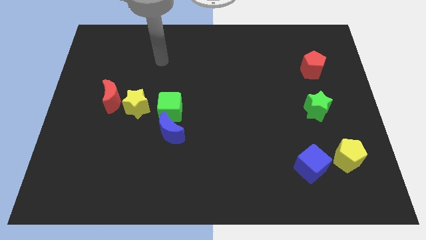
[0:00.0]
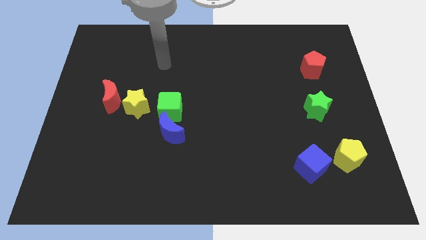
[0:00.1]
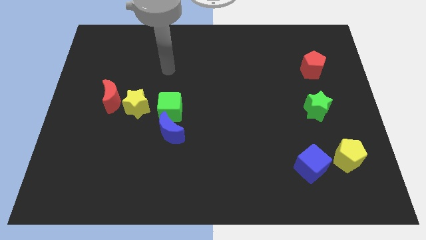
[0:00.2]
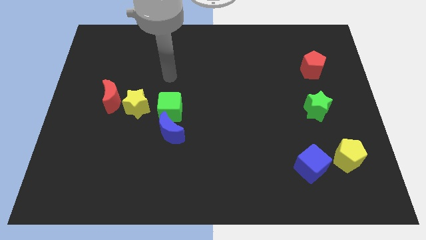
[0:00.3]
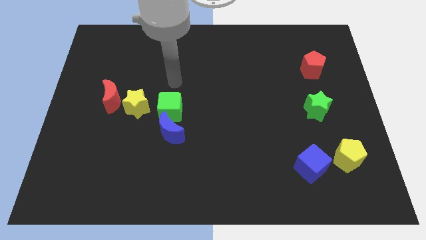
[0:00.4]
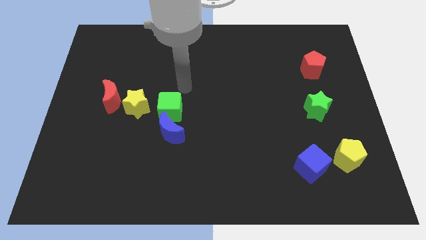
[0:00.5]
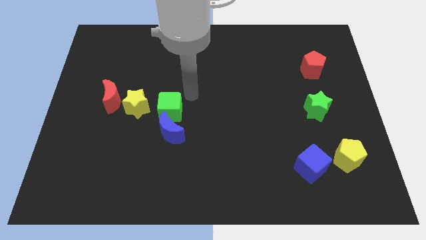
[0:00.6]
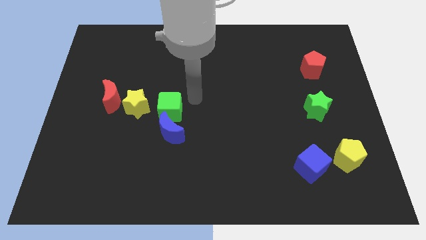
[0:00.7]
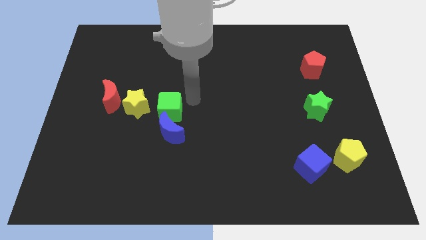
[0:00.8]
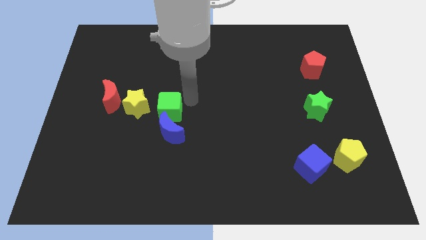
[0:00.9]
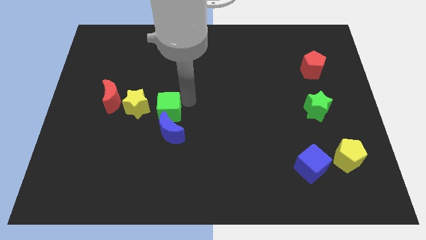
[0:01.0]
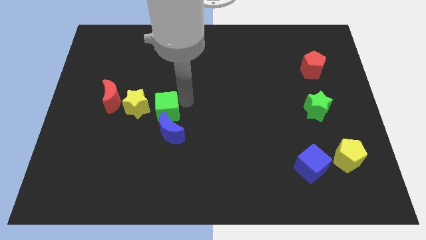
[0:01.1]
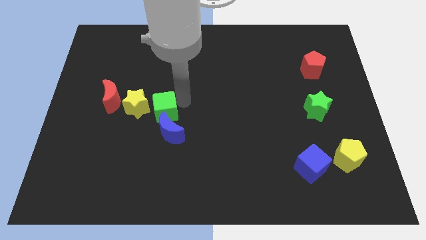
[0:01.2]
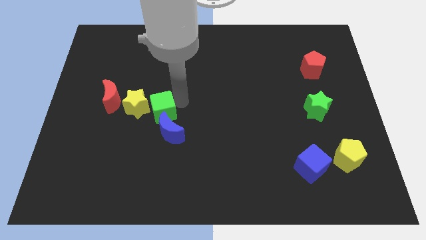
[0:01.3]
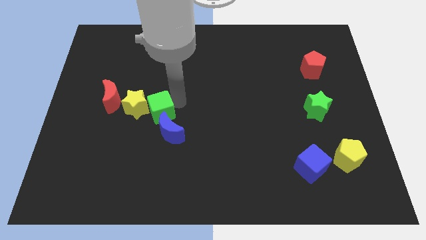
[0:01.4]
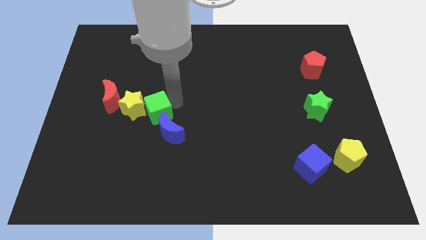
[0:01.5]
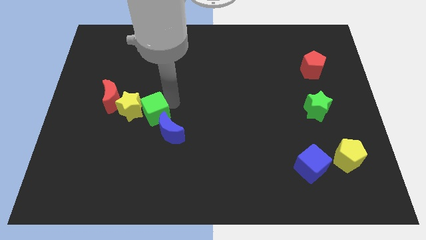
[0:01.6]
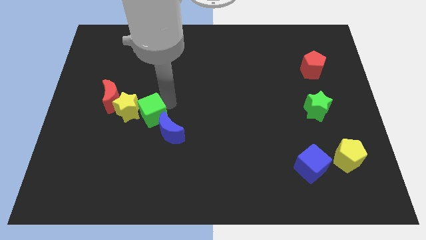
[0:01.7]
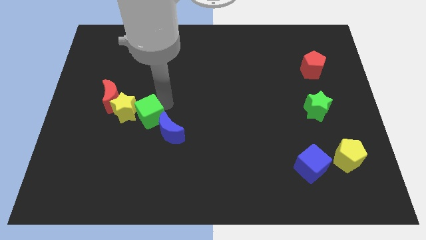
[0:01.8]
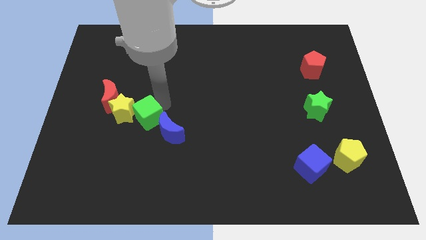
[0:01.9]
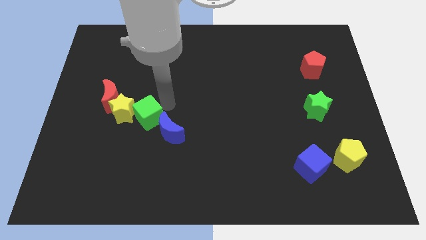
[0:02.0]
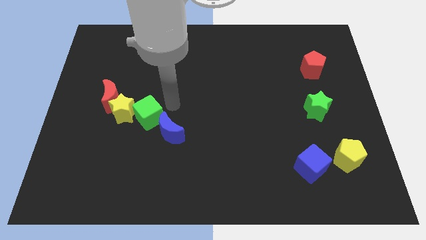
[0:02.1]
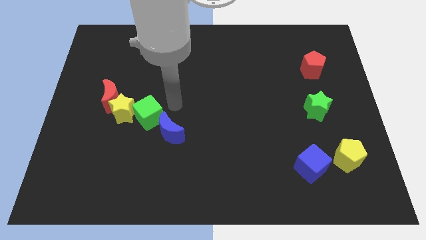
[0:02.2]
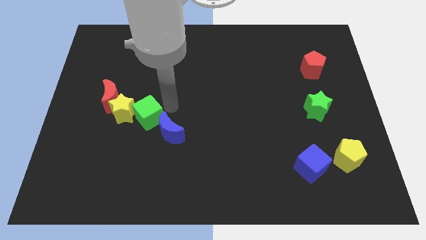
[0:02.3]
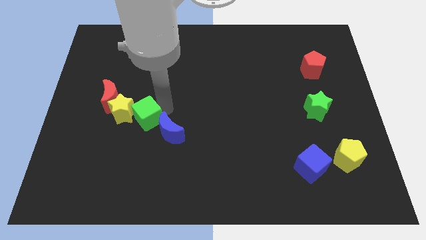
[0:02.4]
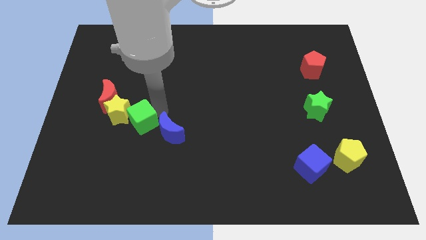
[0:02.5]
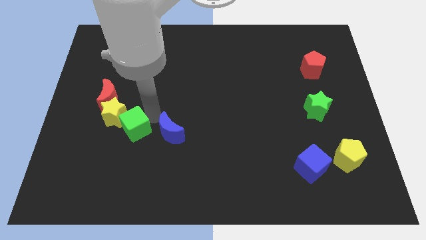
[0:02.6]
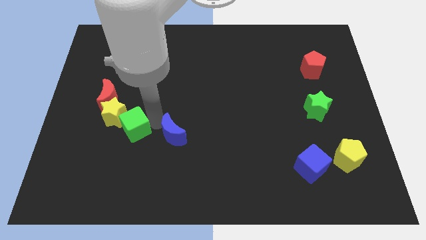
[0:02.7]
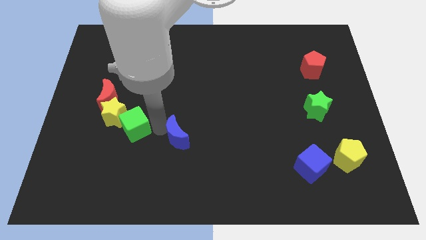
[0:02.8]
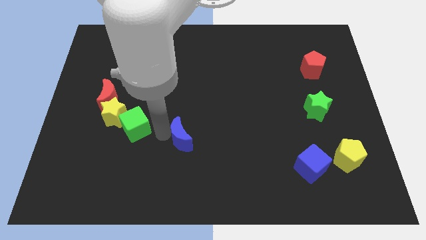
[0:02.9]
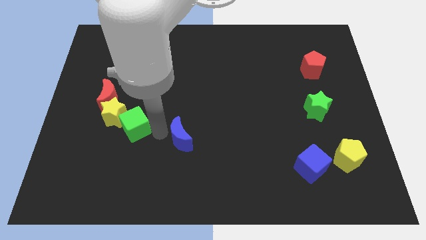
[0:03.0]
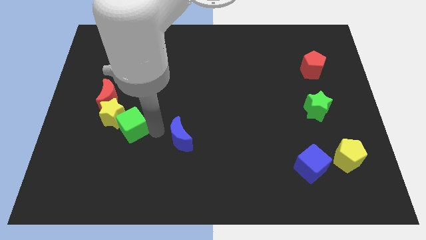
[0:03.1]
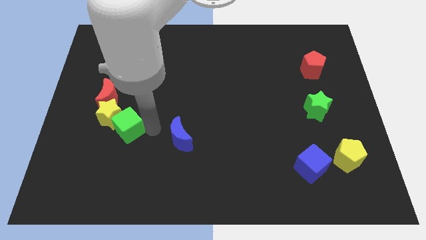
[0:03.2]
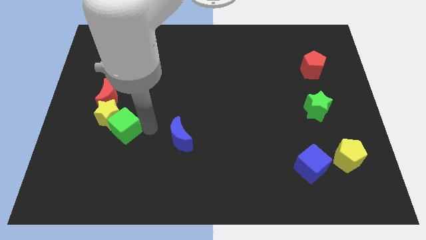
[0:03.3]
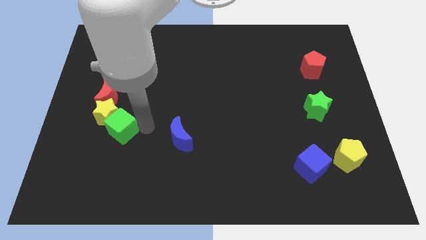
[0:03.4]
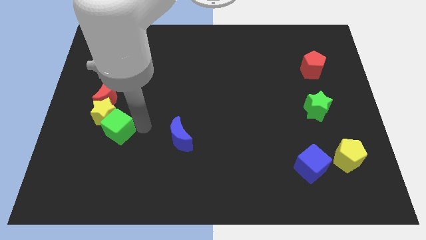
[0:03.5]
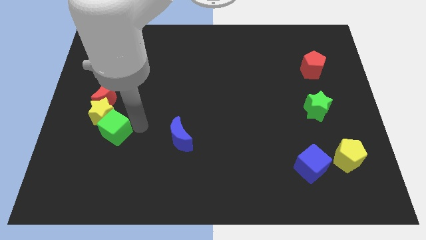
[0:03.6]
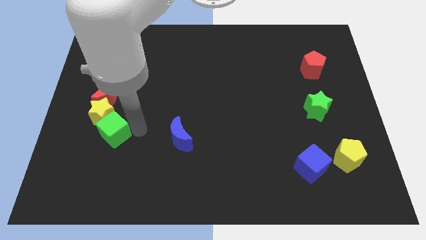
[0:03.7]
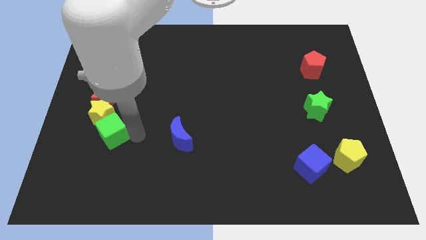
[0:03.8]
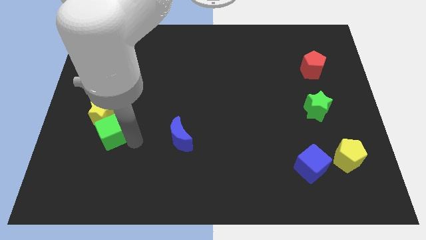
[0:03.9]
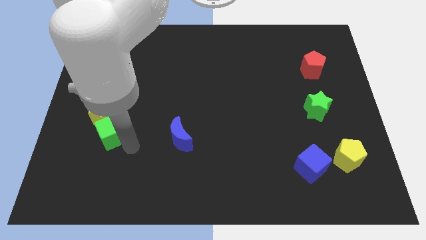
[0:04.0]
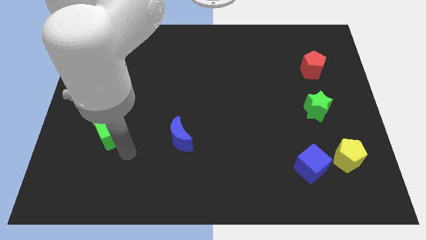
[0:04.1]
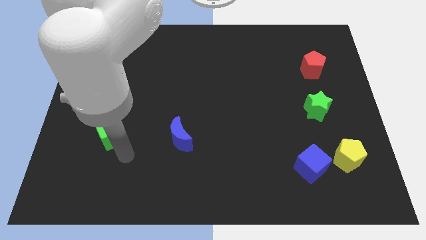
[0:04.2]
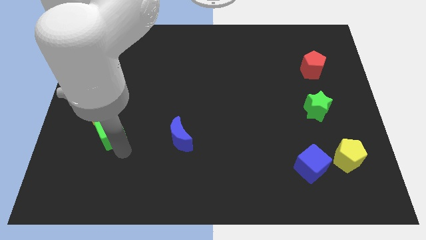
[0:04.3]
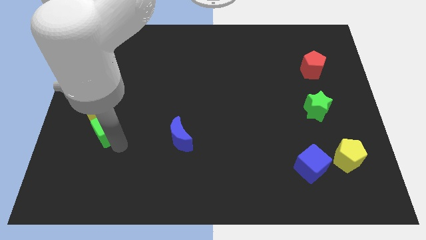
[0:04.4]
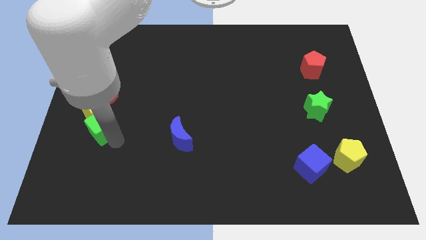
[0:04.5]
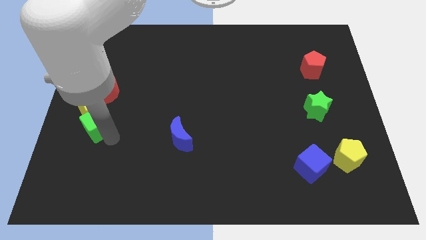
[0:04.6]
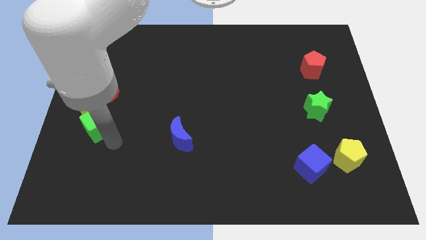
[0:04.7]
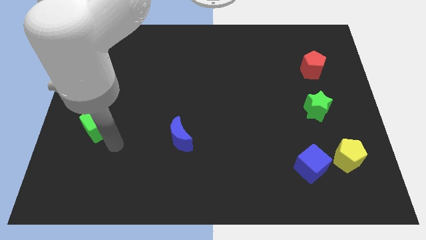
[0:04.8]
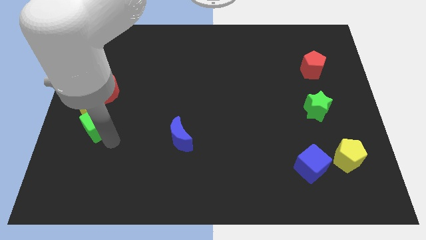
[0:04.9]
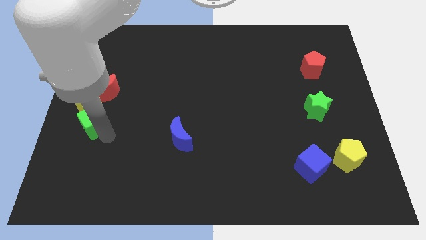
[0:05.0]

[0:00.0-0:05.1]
move the green cube to the left side of the board

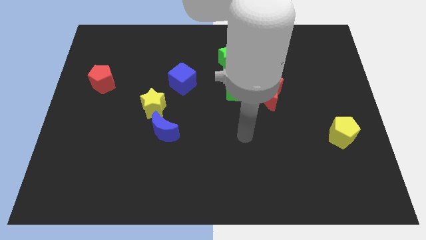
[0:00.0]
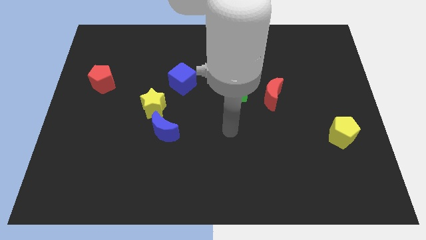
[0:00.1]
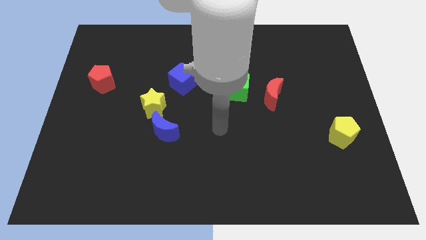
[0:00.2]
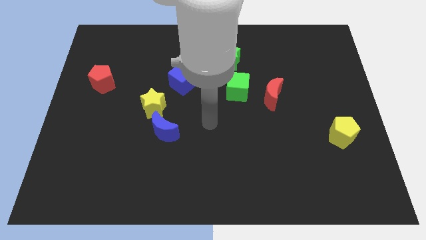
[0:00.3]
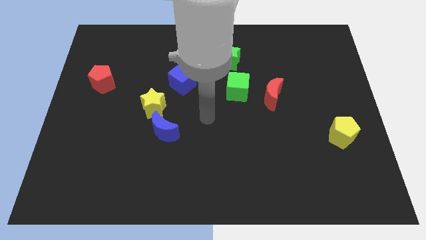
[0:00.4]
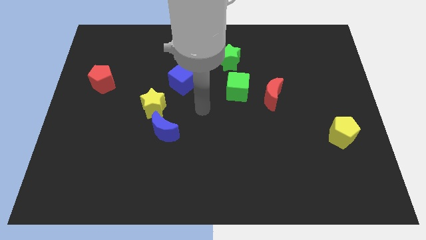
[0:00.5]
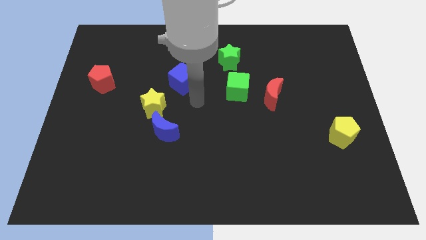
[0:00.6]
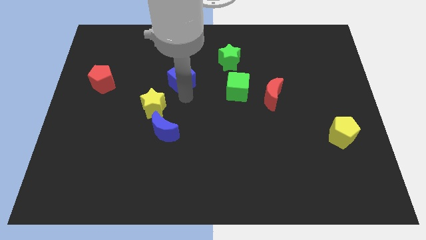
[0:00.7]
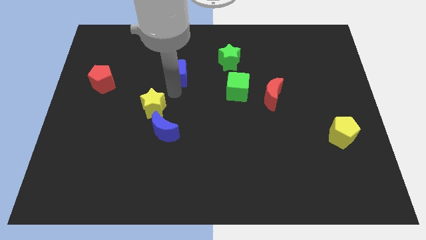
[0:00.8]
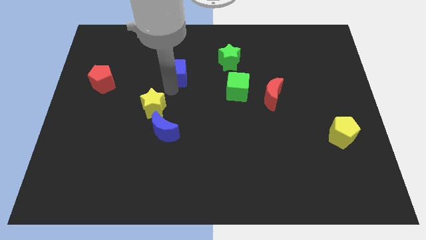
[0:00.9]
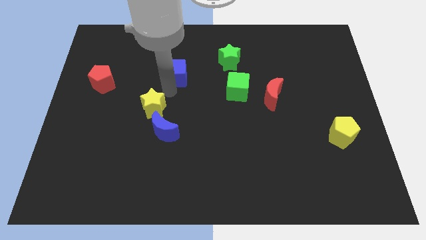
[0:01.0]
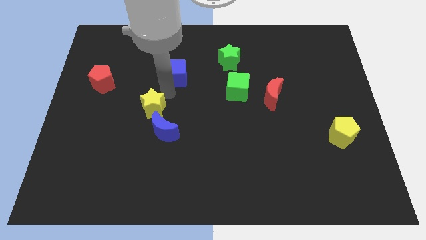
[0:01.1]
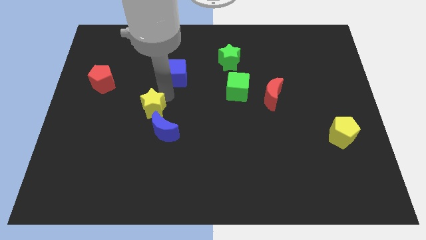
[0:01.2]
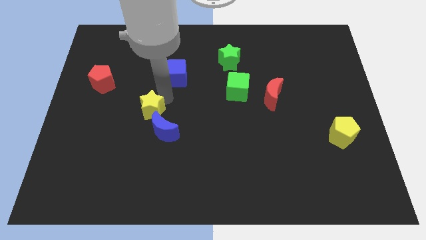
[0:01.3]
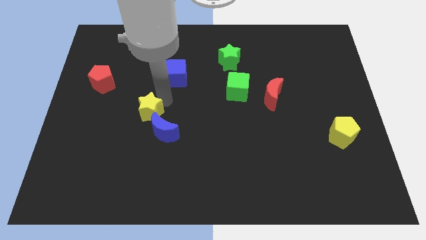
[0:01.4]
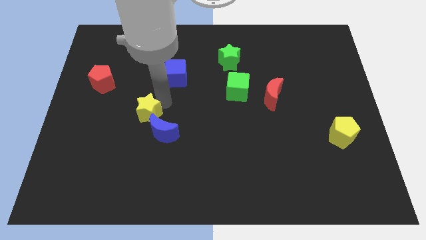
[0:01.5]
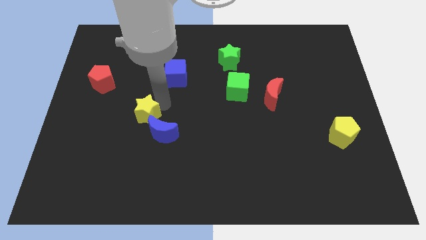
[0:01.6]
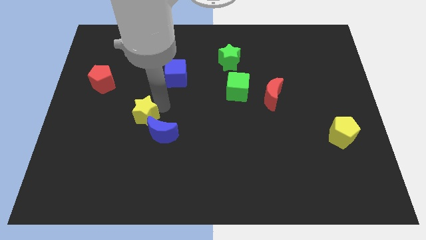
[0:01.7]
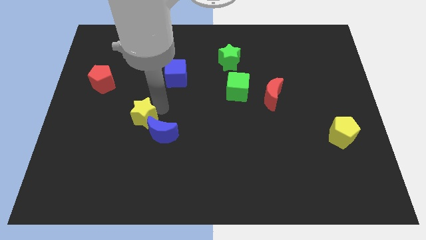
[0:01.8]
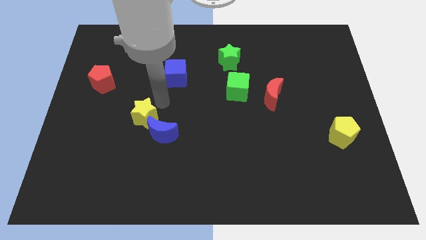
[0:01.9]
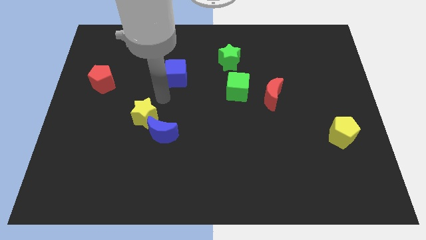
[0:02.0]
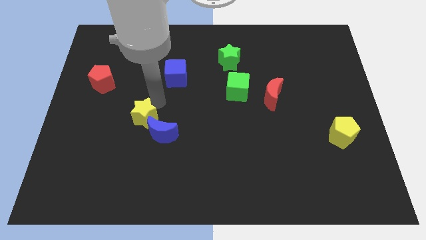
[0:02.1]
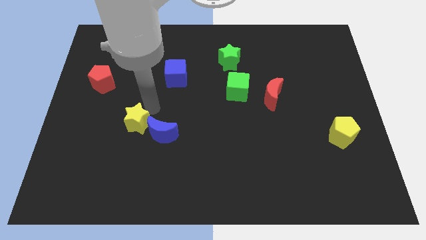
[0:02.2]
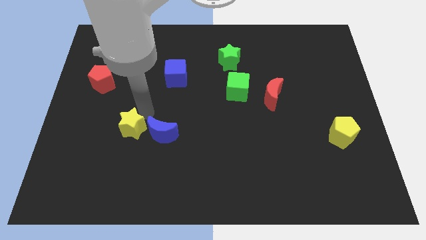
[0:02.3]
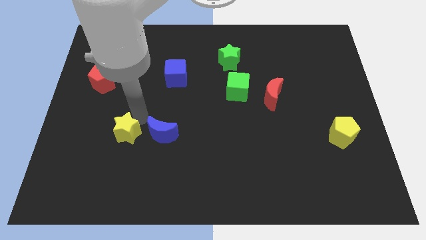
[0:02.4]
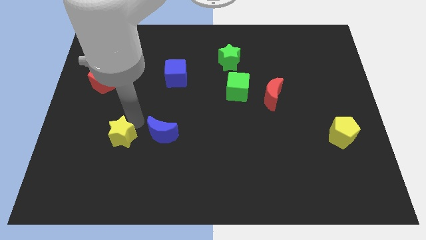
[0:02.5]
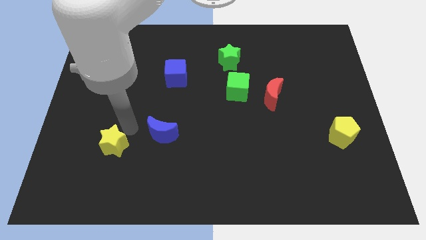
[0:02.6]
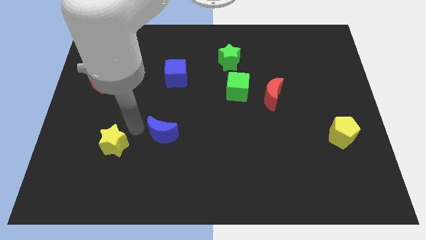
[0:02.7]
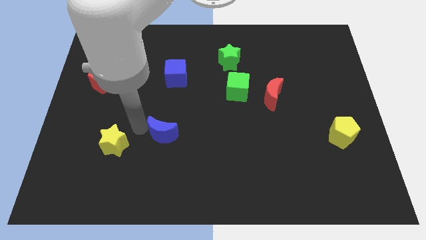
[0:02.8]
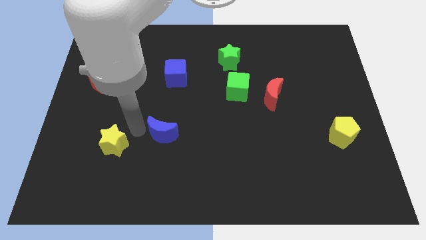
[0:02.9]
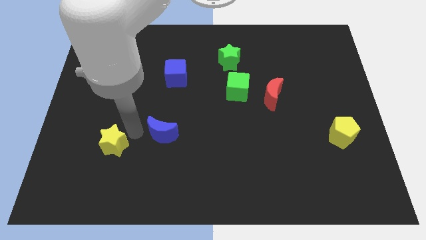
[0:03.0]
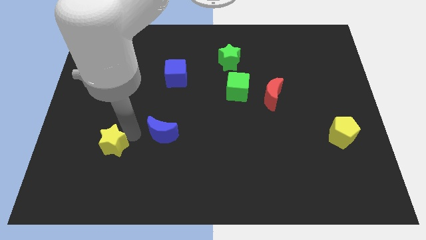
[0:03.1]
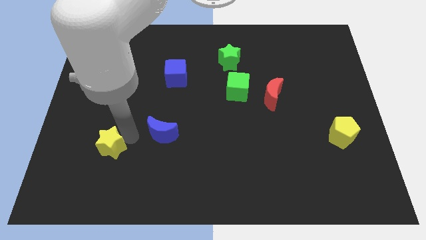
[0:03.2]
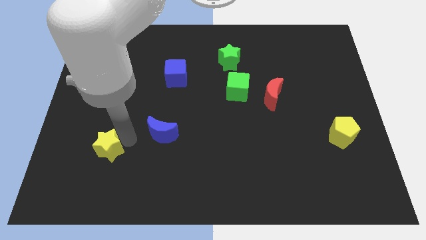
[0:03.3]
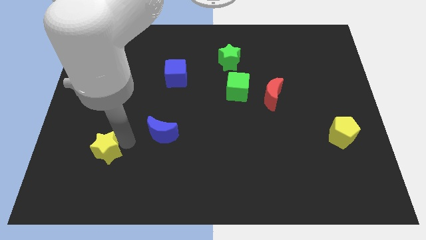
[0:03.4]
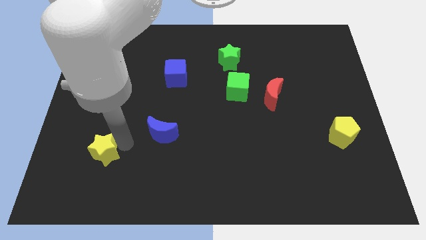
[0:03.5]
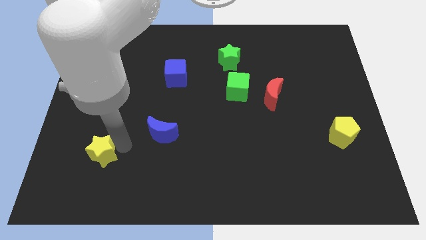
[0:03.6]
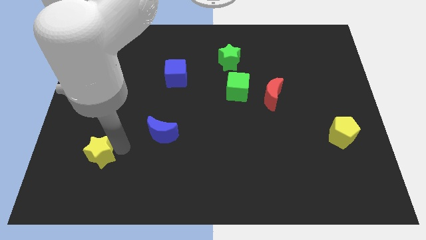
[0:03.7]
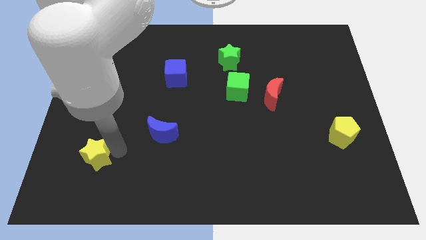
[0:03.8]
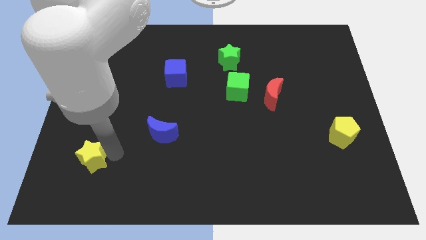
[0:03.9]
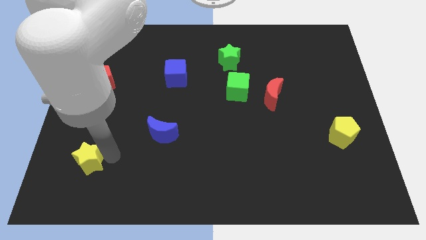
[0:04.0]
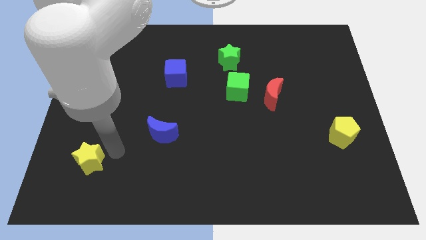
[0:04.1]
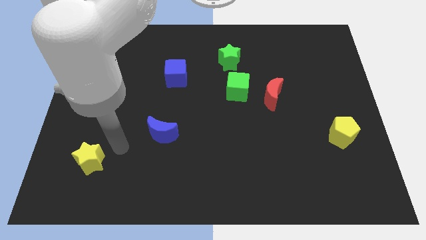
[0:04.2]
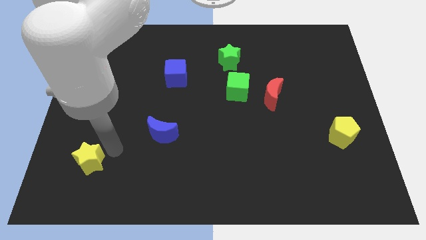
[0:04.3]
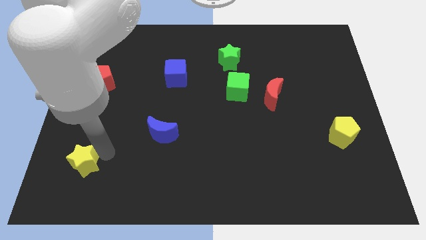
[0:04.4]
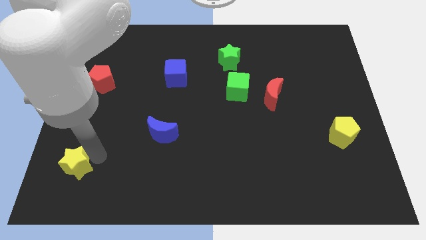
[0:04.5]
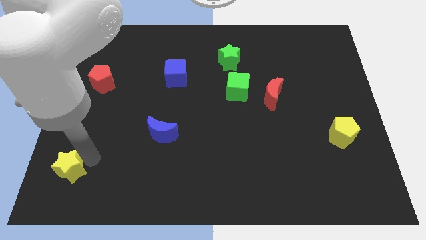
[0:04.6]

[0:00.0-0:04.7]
slide the yellow star to the bottom left corner
